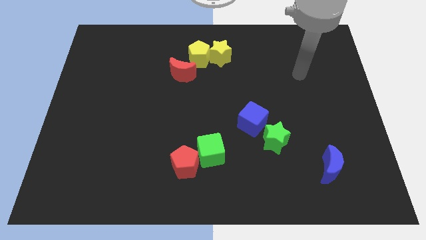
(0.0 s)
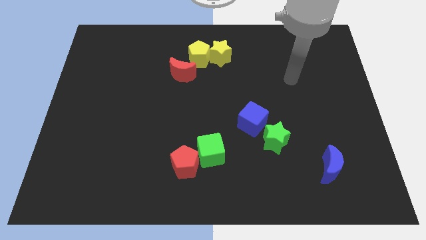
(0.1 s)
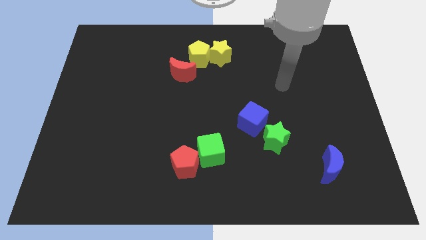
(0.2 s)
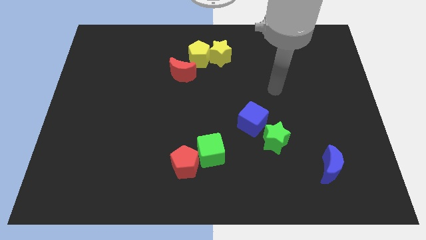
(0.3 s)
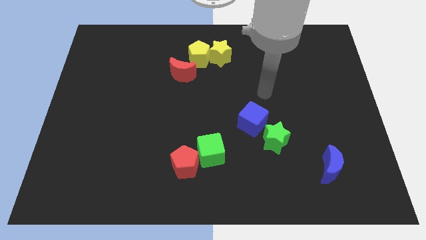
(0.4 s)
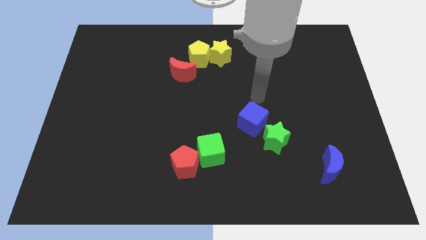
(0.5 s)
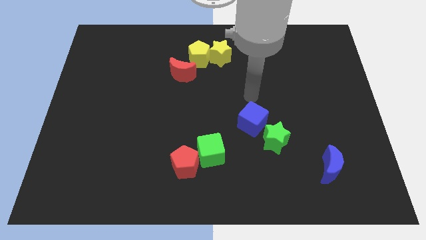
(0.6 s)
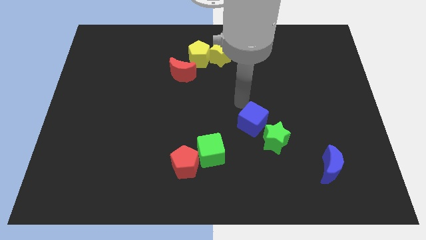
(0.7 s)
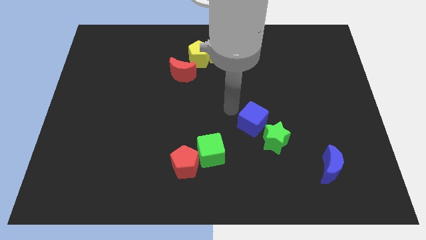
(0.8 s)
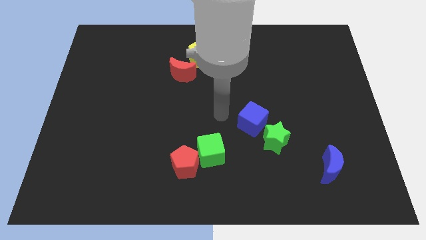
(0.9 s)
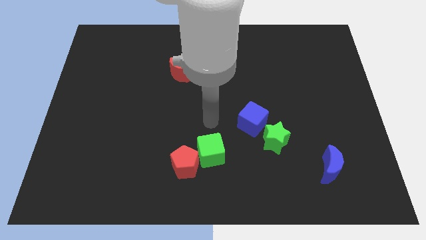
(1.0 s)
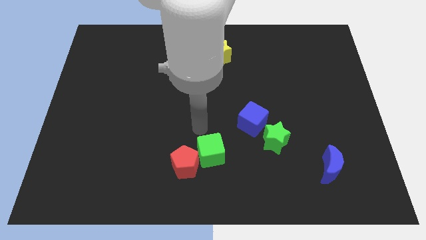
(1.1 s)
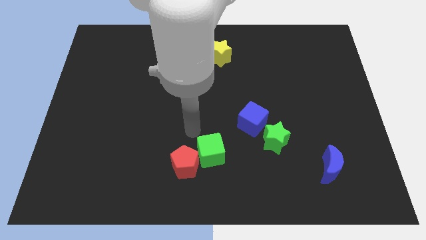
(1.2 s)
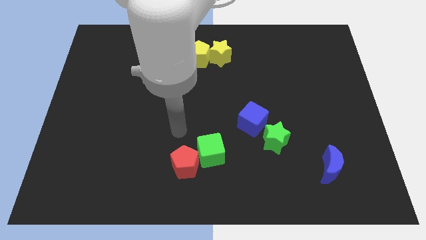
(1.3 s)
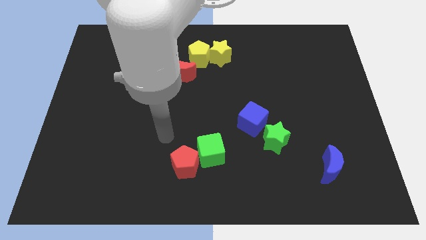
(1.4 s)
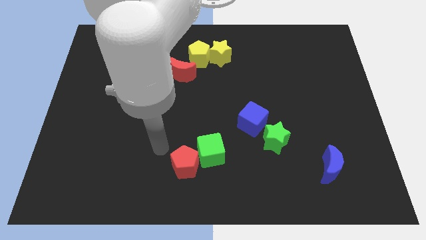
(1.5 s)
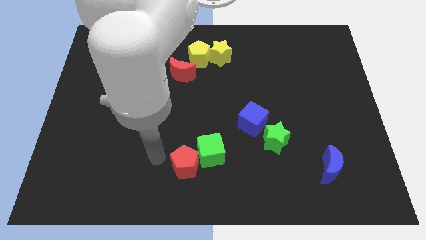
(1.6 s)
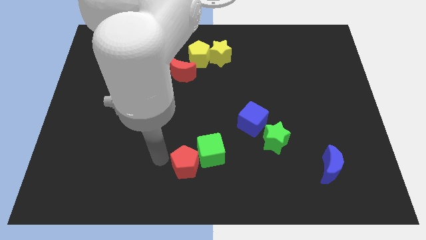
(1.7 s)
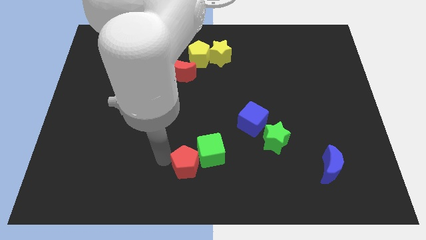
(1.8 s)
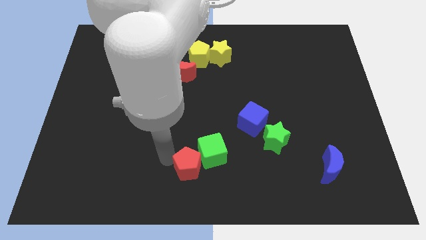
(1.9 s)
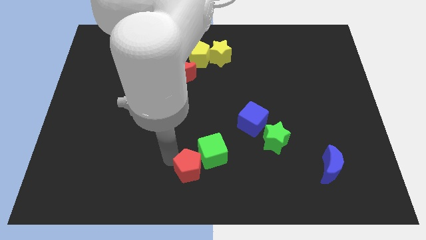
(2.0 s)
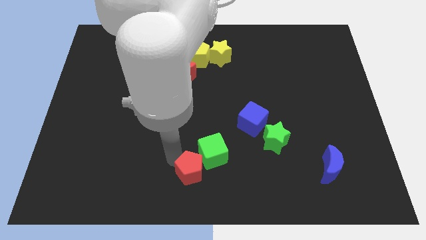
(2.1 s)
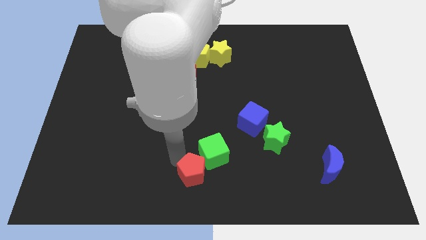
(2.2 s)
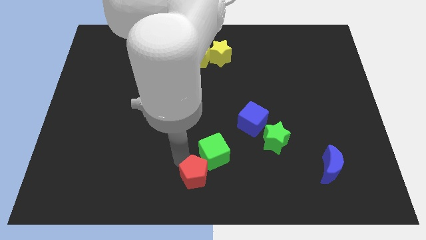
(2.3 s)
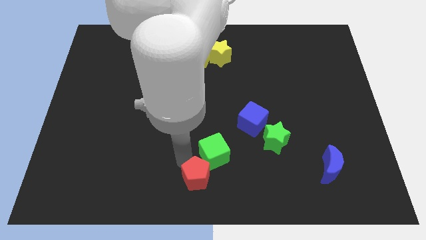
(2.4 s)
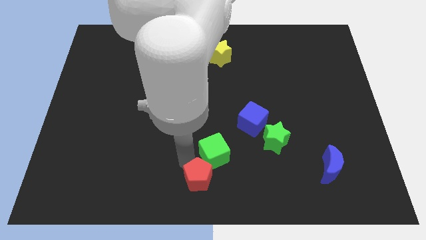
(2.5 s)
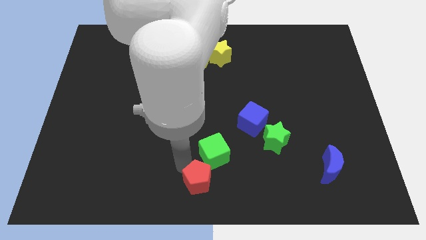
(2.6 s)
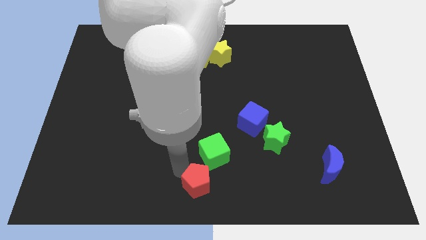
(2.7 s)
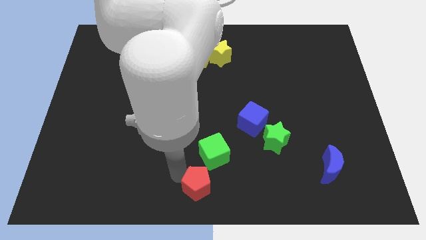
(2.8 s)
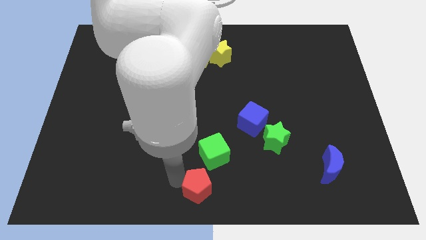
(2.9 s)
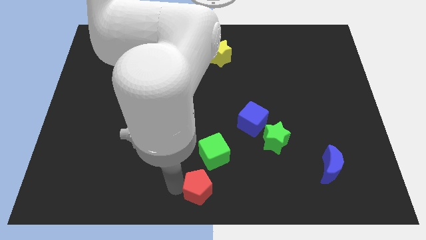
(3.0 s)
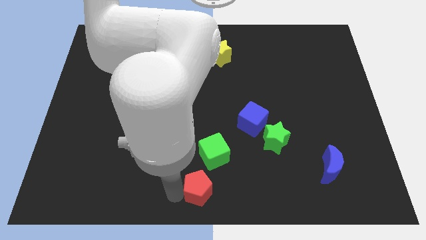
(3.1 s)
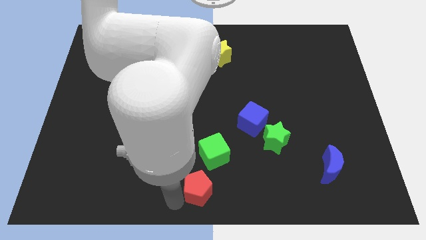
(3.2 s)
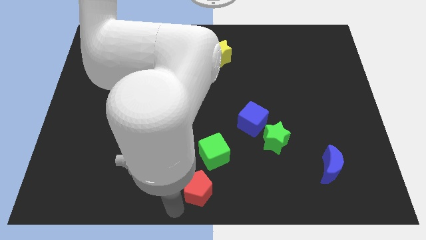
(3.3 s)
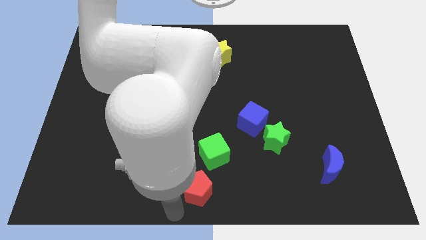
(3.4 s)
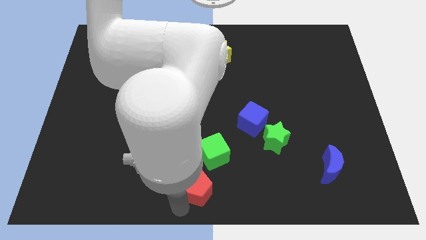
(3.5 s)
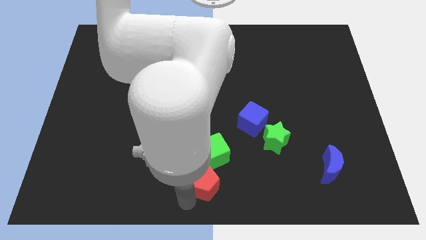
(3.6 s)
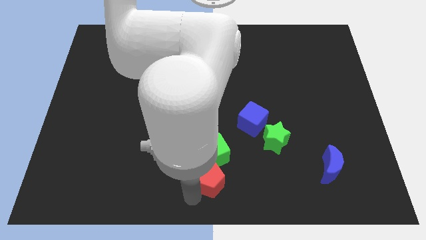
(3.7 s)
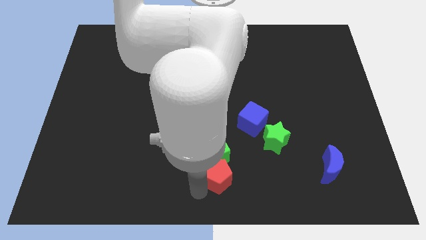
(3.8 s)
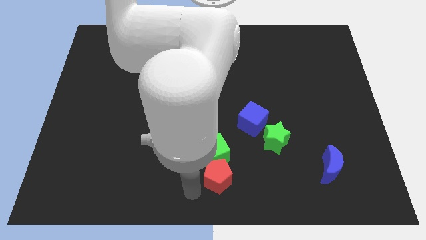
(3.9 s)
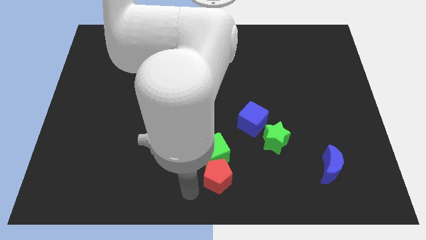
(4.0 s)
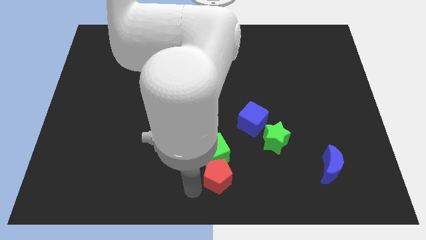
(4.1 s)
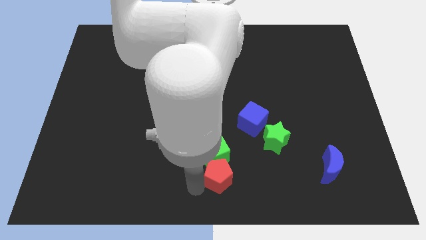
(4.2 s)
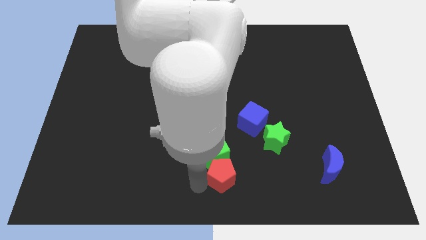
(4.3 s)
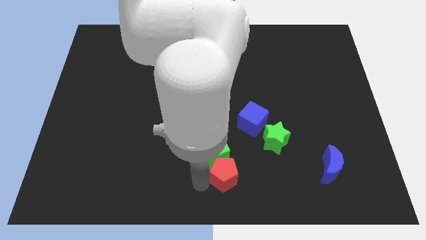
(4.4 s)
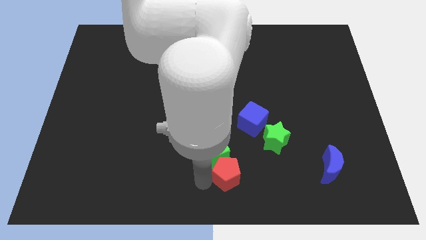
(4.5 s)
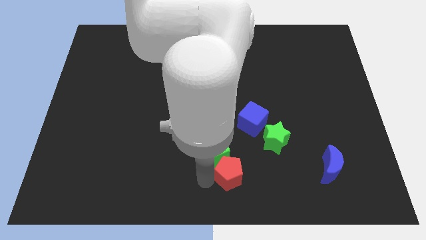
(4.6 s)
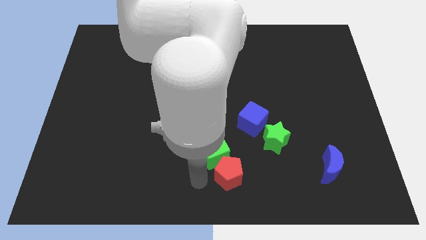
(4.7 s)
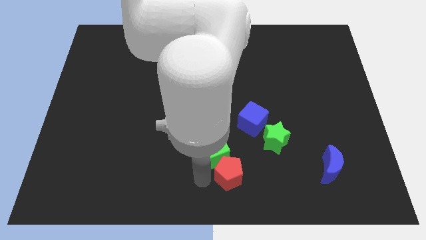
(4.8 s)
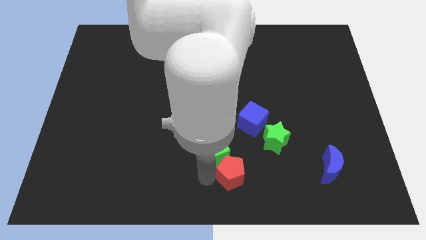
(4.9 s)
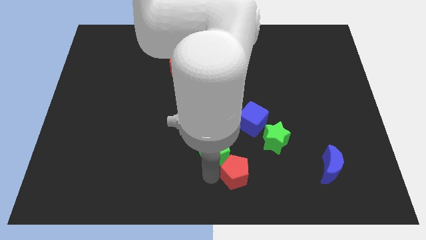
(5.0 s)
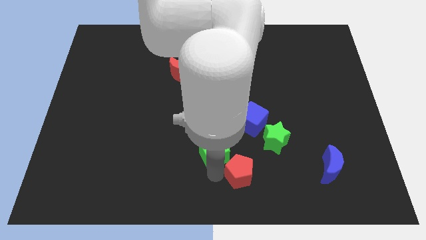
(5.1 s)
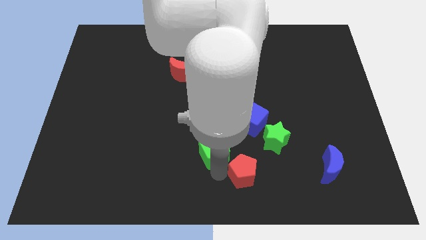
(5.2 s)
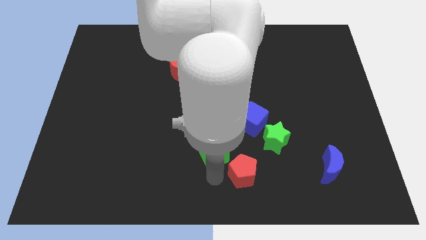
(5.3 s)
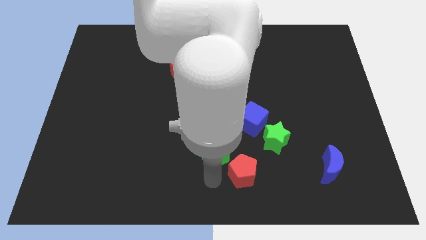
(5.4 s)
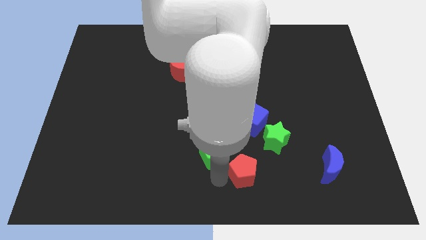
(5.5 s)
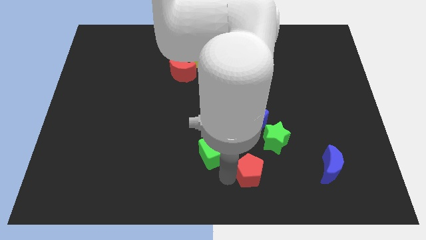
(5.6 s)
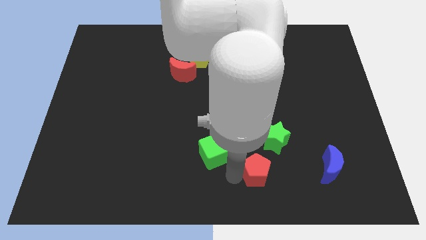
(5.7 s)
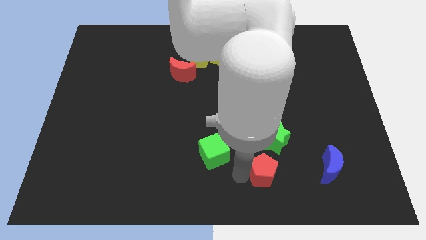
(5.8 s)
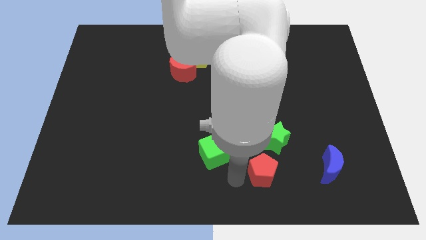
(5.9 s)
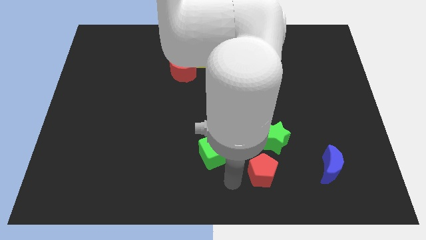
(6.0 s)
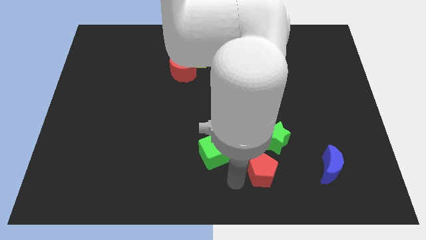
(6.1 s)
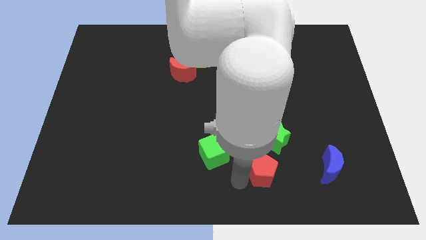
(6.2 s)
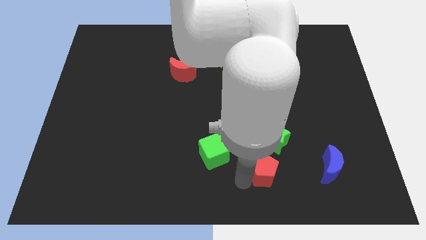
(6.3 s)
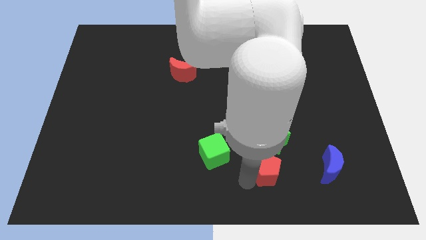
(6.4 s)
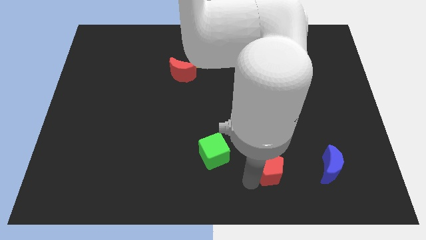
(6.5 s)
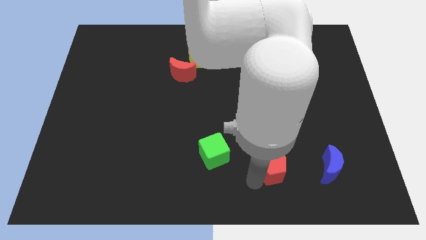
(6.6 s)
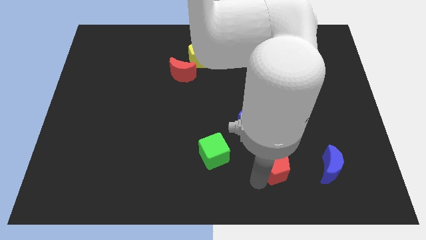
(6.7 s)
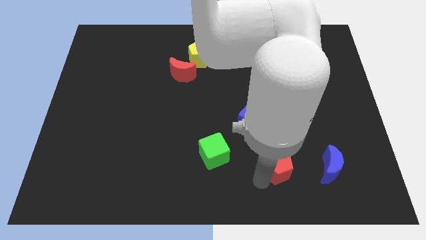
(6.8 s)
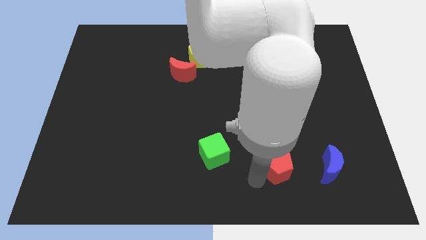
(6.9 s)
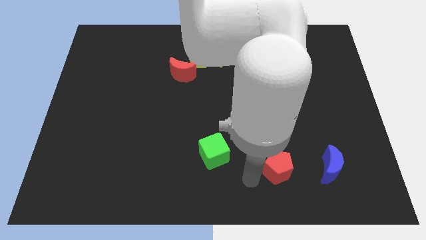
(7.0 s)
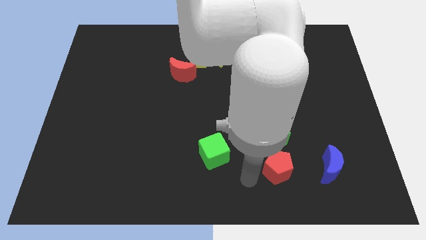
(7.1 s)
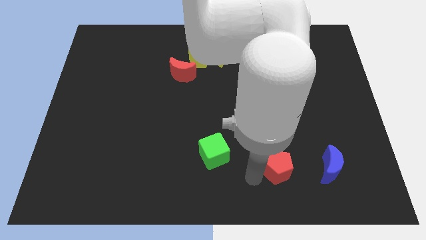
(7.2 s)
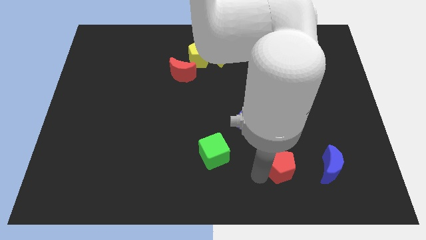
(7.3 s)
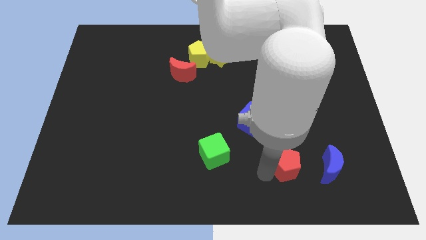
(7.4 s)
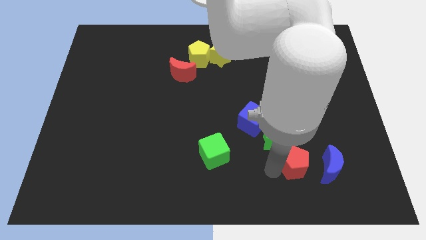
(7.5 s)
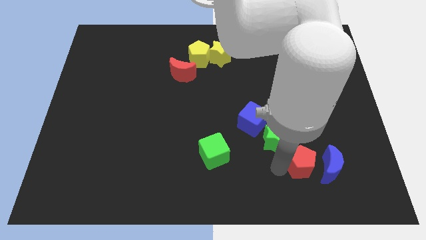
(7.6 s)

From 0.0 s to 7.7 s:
push the red pentagon close to the blue moon
